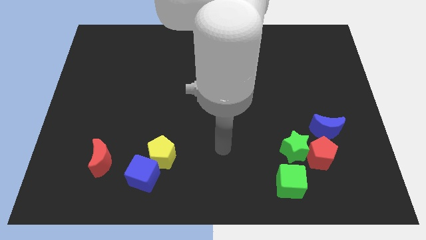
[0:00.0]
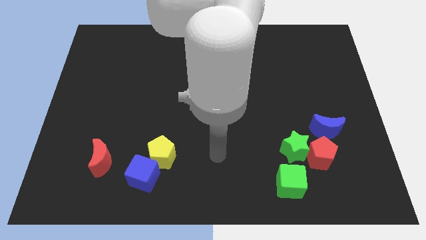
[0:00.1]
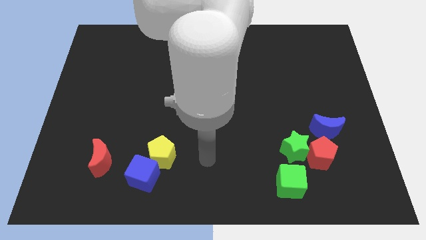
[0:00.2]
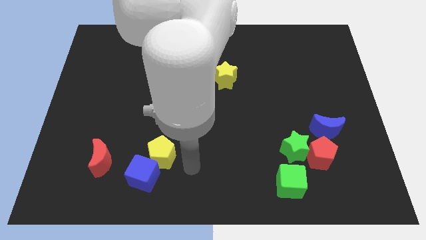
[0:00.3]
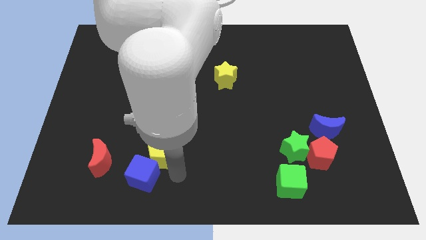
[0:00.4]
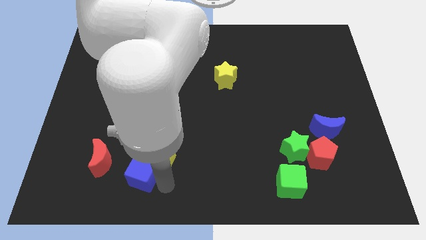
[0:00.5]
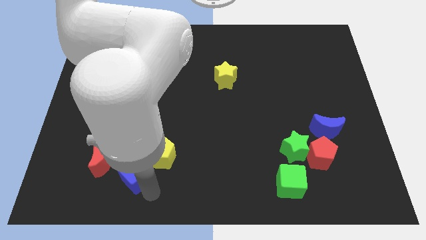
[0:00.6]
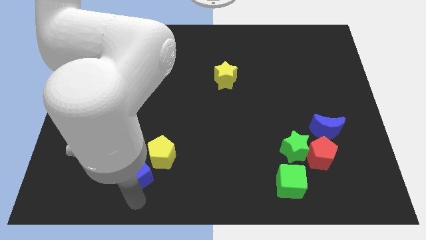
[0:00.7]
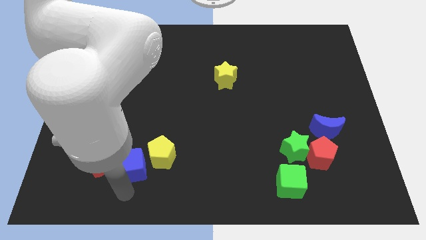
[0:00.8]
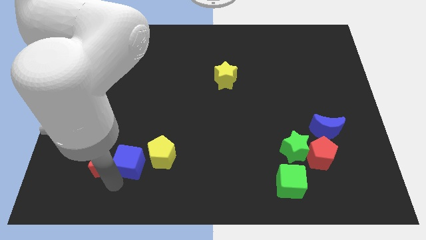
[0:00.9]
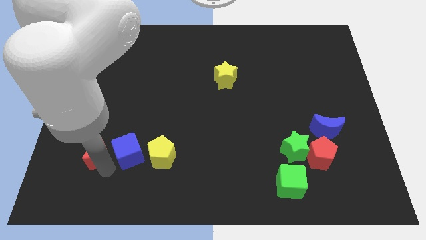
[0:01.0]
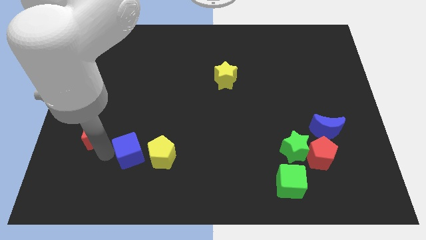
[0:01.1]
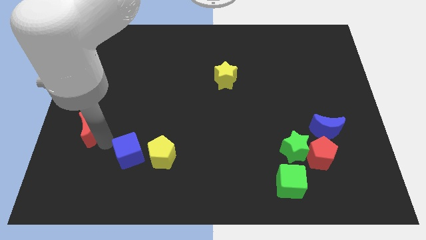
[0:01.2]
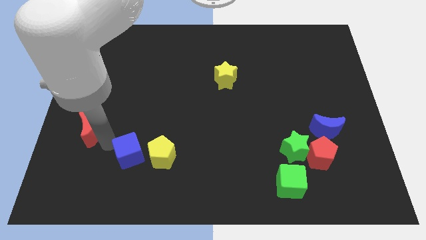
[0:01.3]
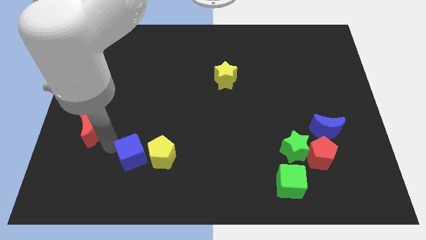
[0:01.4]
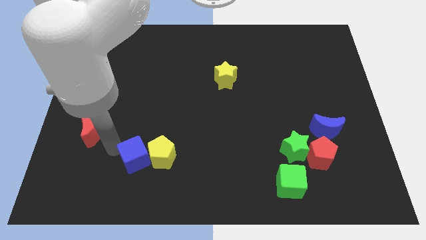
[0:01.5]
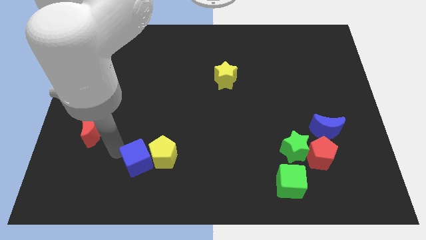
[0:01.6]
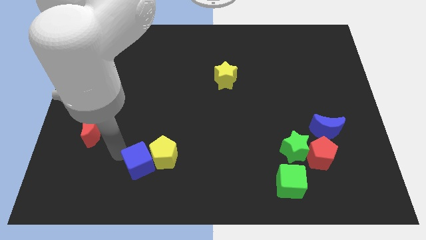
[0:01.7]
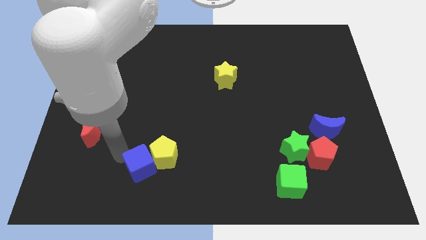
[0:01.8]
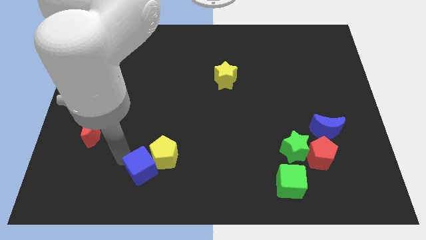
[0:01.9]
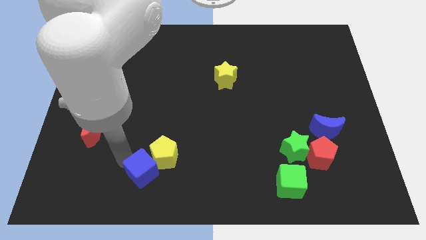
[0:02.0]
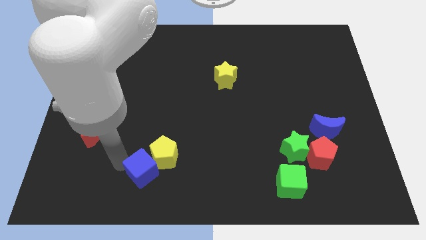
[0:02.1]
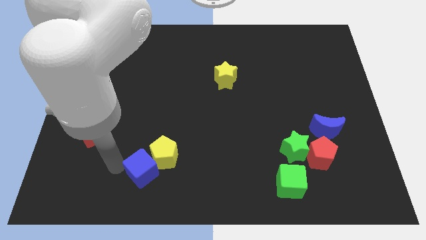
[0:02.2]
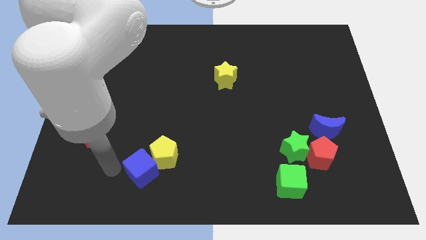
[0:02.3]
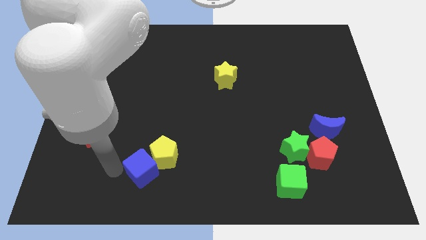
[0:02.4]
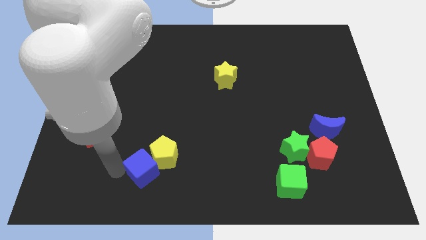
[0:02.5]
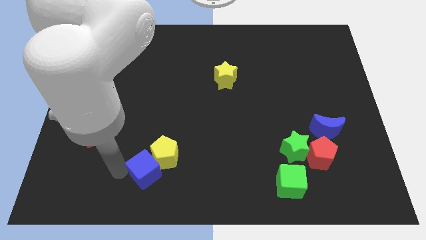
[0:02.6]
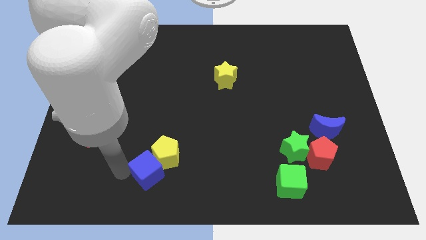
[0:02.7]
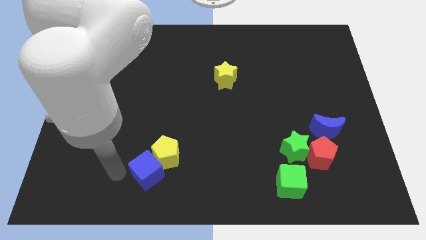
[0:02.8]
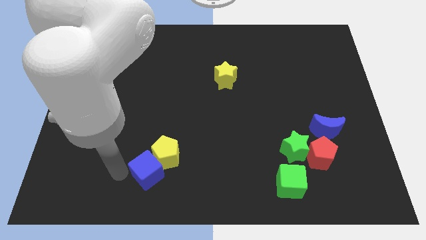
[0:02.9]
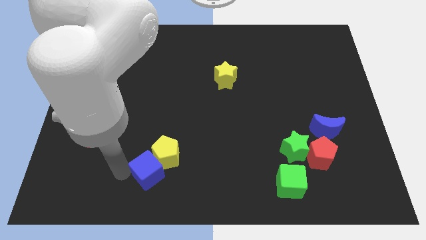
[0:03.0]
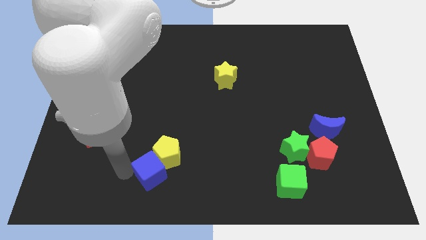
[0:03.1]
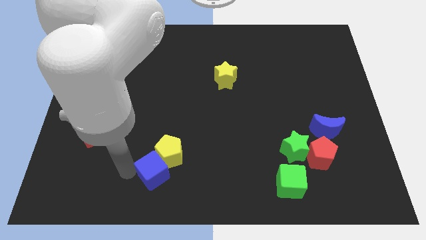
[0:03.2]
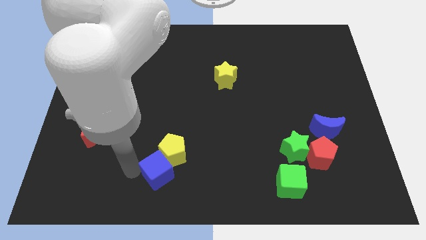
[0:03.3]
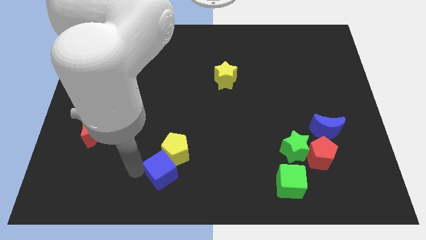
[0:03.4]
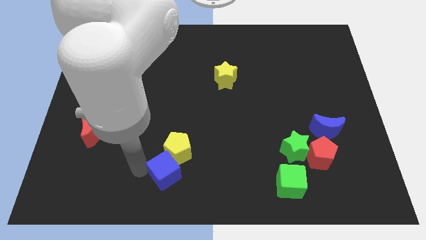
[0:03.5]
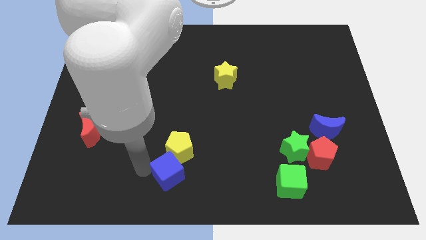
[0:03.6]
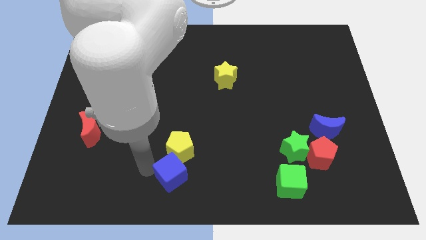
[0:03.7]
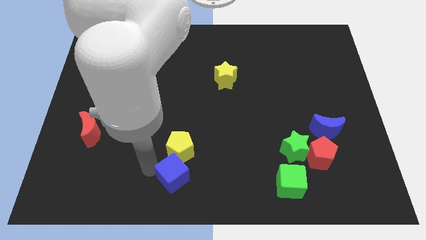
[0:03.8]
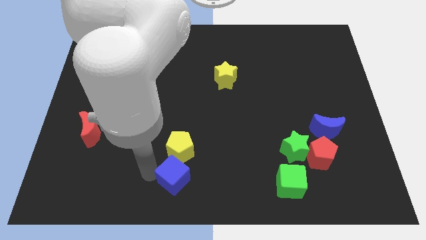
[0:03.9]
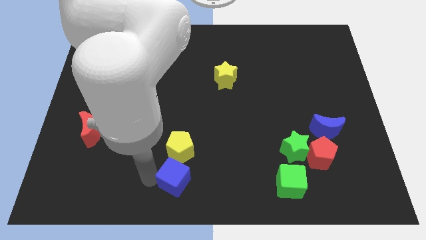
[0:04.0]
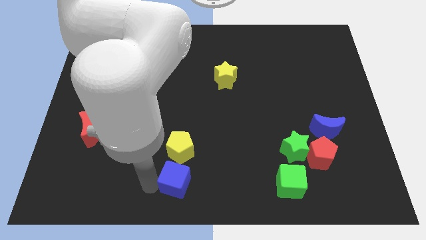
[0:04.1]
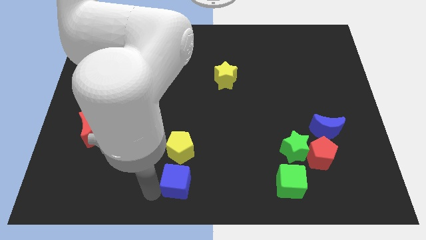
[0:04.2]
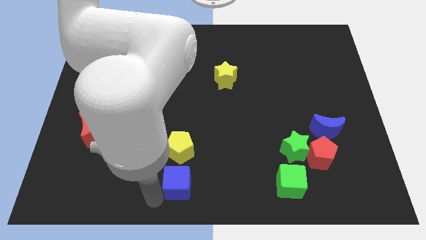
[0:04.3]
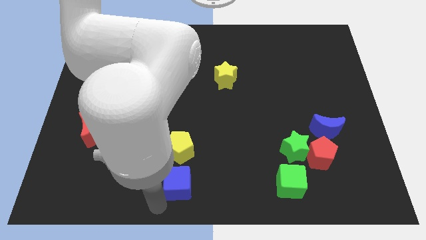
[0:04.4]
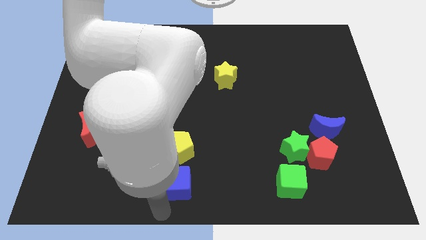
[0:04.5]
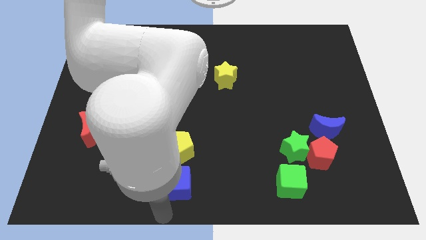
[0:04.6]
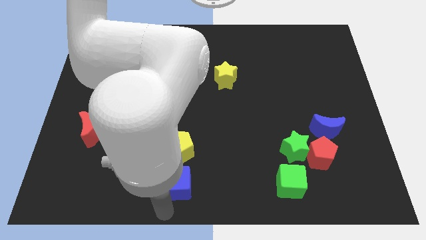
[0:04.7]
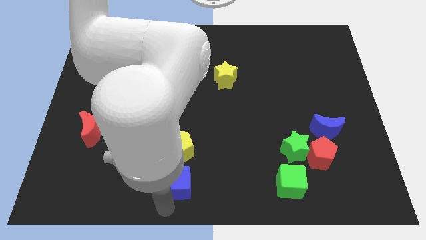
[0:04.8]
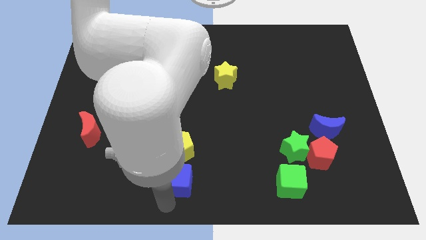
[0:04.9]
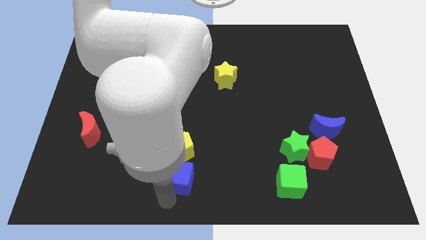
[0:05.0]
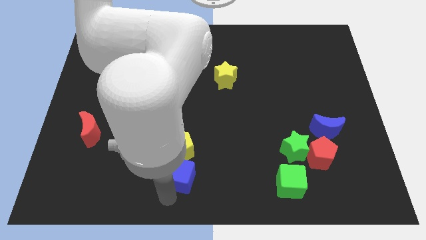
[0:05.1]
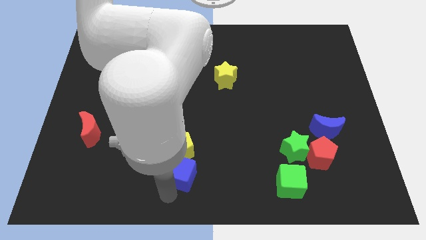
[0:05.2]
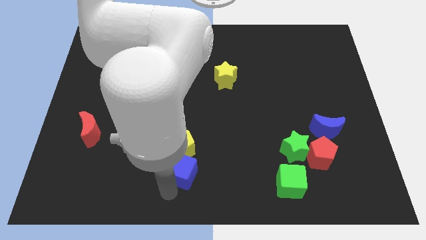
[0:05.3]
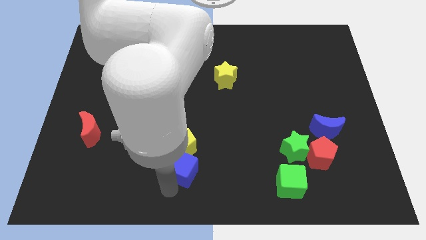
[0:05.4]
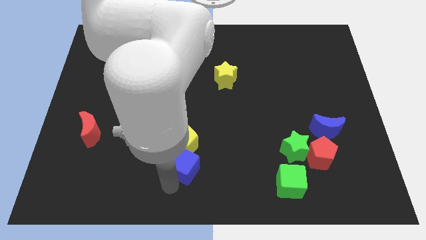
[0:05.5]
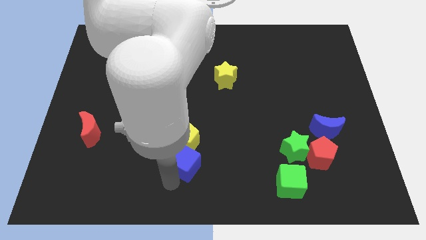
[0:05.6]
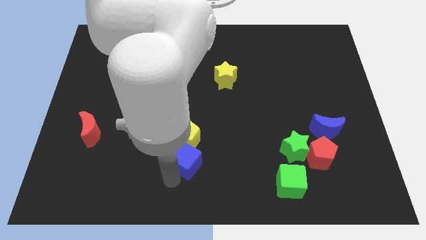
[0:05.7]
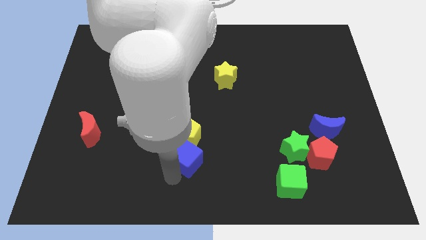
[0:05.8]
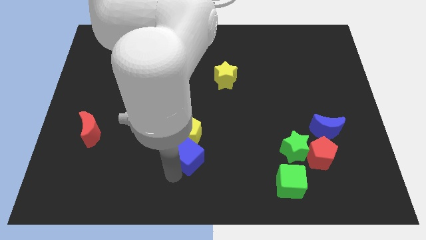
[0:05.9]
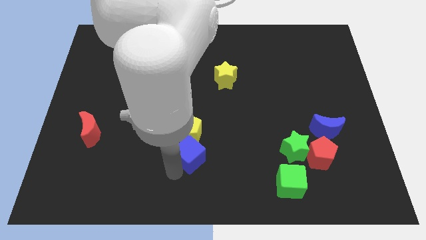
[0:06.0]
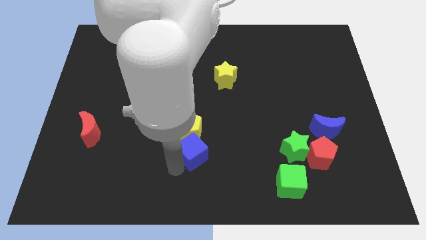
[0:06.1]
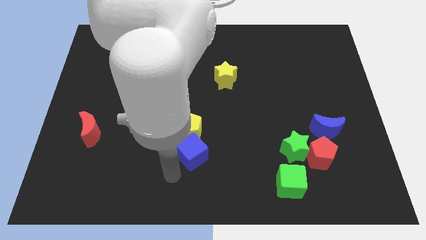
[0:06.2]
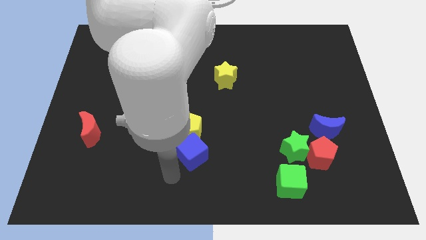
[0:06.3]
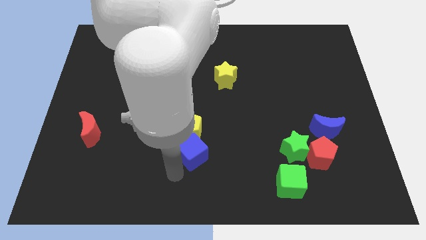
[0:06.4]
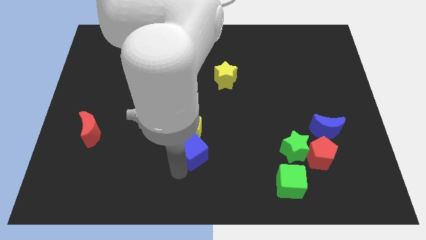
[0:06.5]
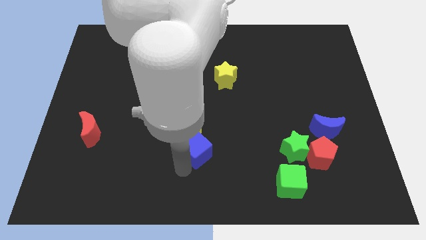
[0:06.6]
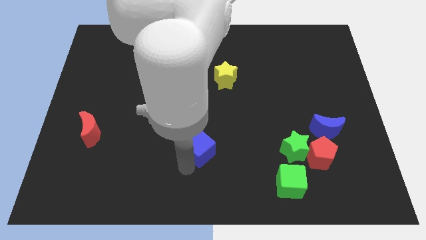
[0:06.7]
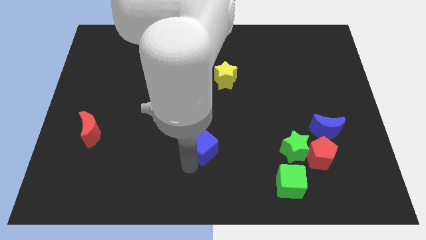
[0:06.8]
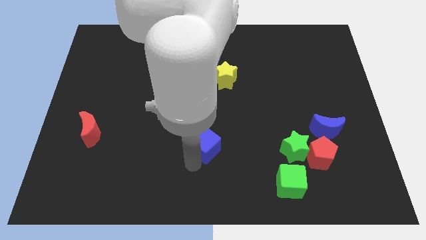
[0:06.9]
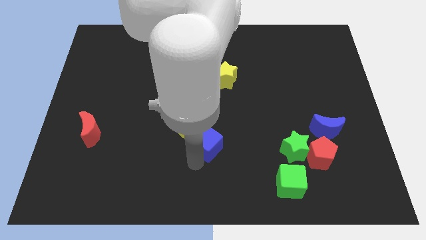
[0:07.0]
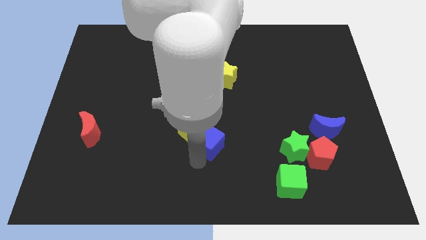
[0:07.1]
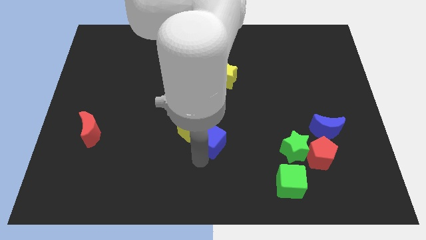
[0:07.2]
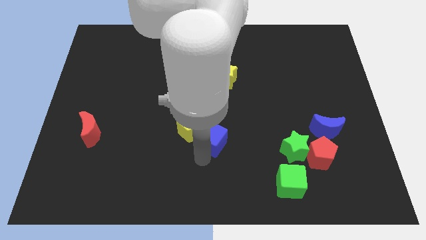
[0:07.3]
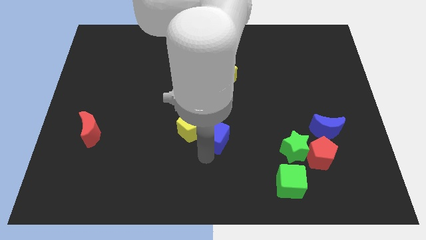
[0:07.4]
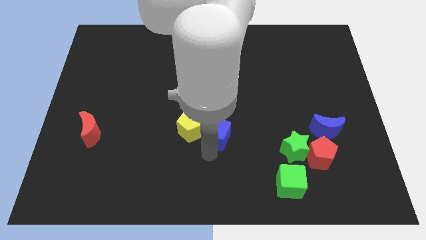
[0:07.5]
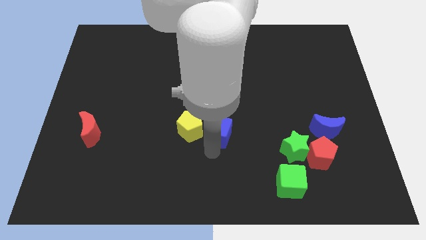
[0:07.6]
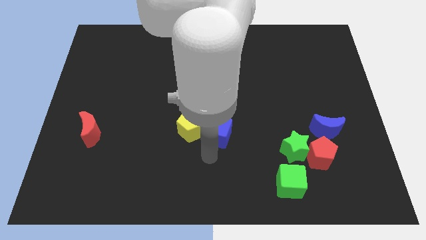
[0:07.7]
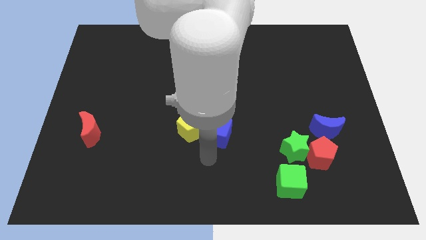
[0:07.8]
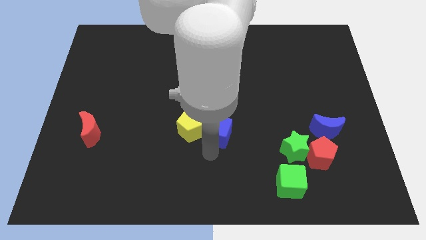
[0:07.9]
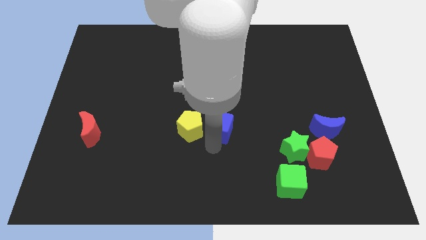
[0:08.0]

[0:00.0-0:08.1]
push the blue cube to the bottom of the yellow star
